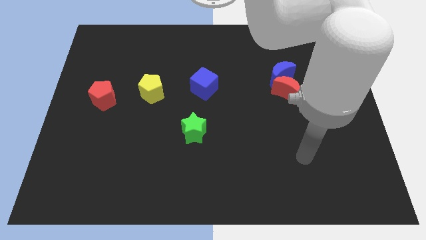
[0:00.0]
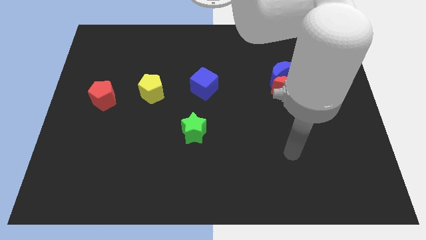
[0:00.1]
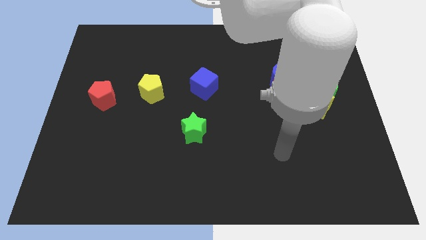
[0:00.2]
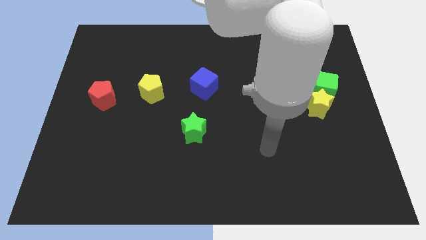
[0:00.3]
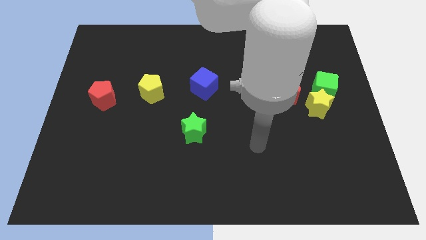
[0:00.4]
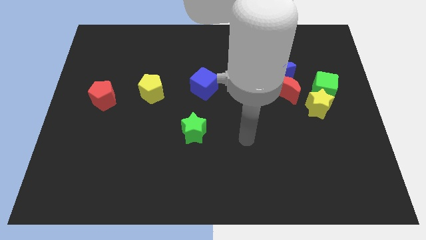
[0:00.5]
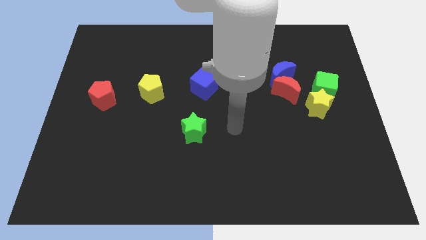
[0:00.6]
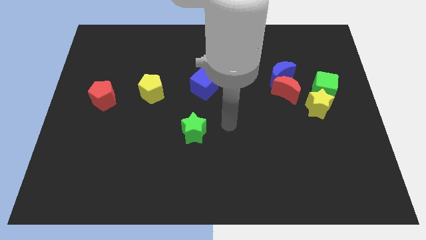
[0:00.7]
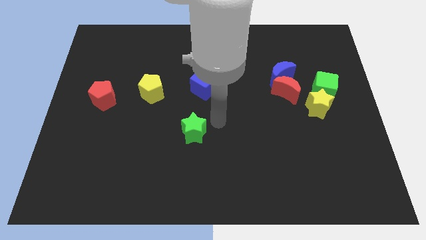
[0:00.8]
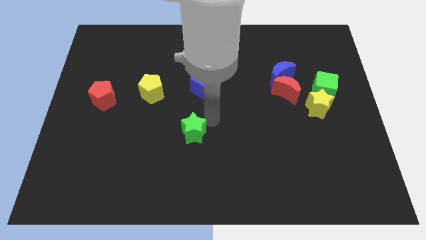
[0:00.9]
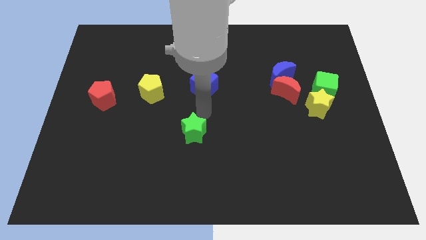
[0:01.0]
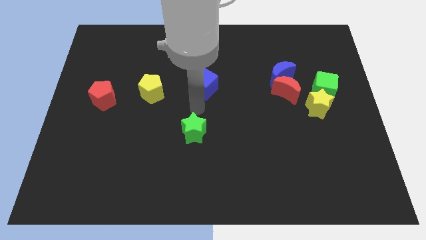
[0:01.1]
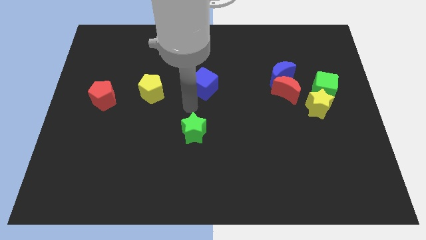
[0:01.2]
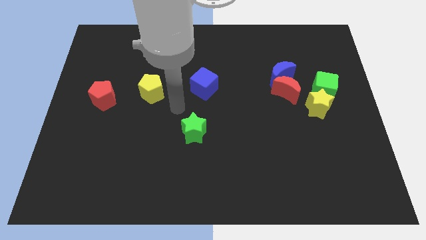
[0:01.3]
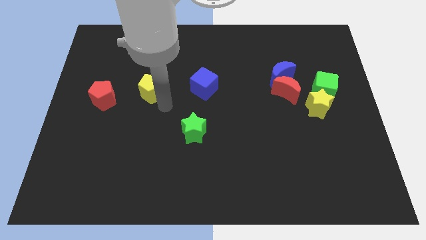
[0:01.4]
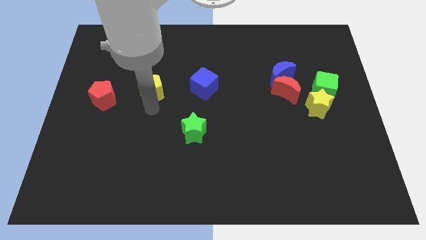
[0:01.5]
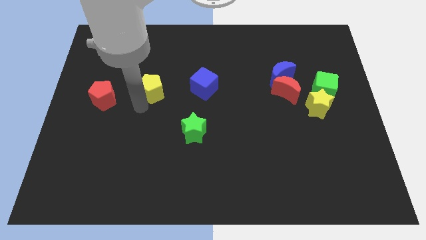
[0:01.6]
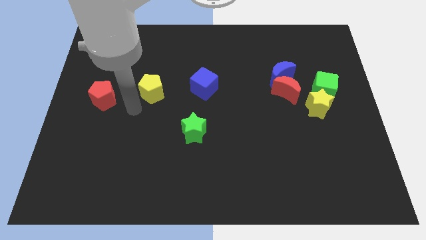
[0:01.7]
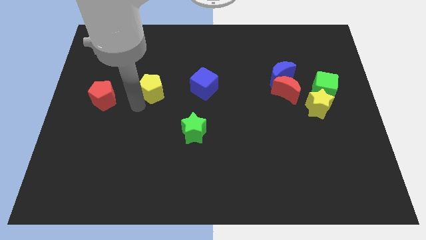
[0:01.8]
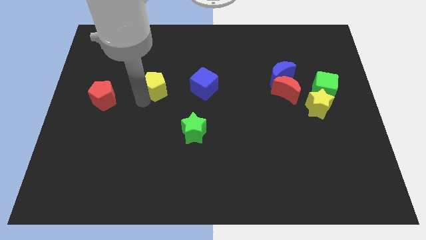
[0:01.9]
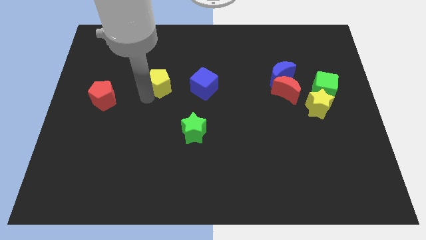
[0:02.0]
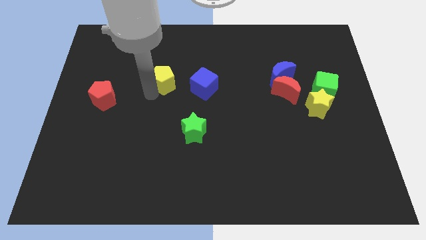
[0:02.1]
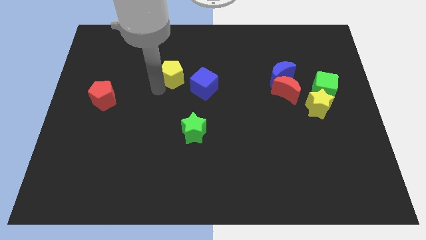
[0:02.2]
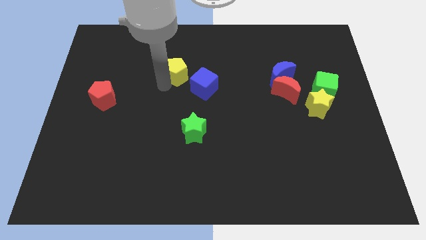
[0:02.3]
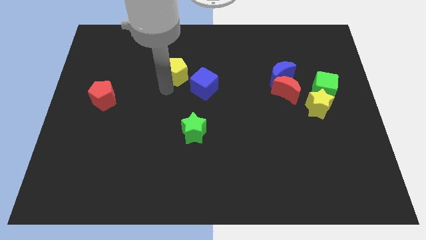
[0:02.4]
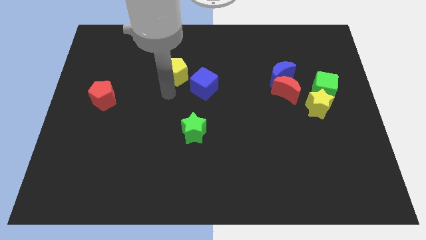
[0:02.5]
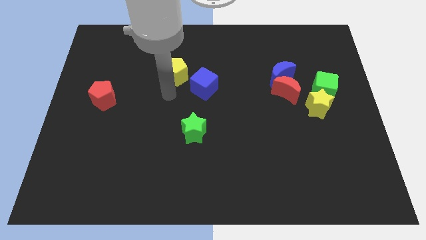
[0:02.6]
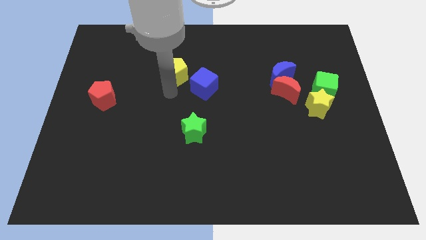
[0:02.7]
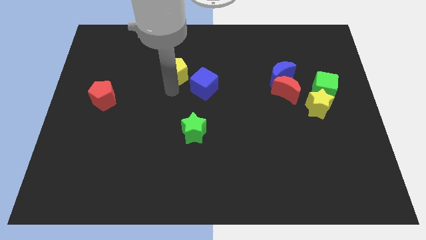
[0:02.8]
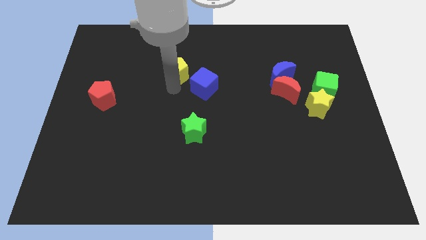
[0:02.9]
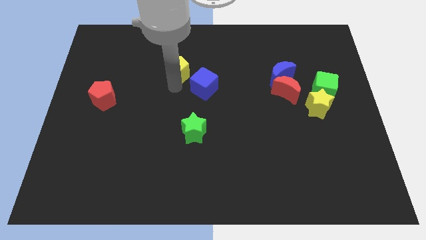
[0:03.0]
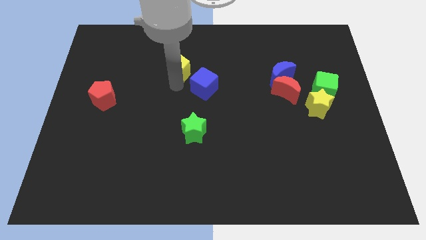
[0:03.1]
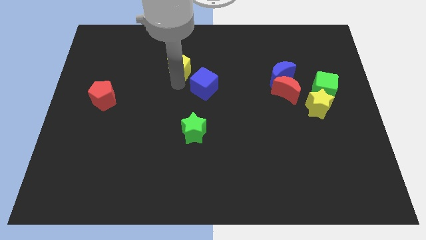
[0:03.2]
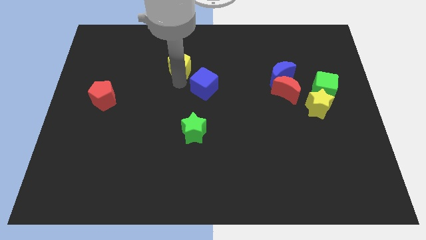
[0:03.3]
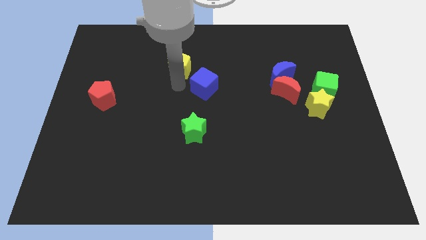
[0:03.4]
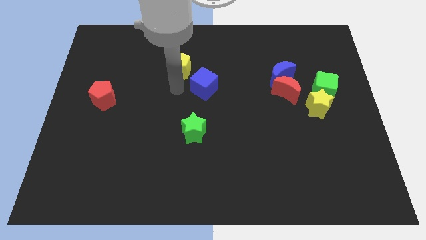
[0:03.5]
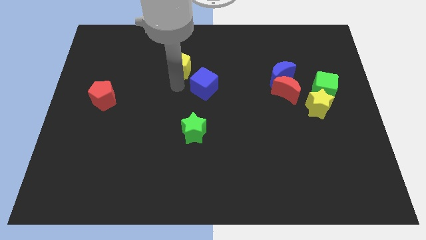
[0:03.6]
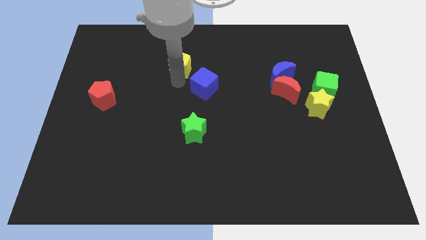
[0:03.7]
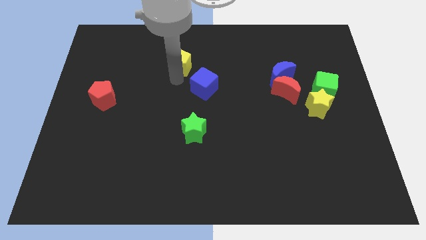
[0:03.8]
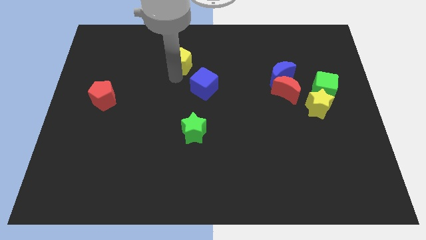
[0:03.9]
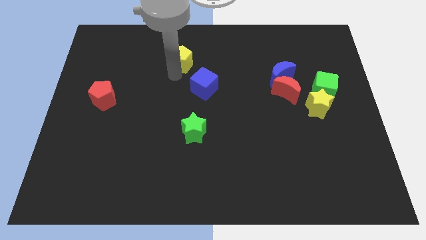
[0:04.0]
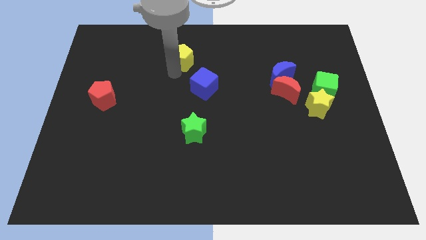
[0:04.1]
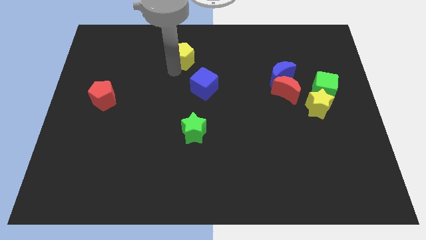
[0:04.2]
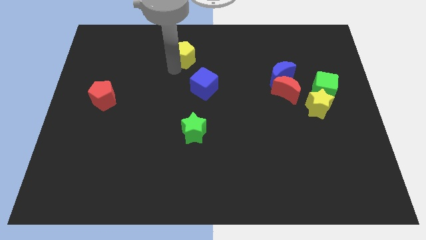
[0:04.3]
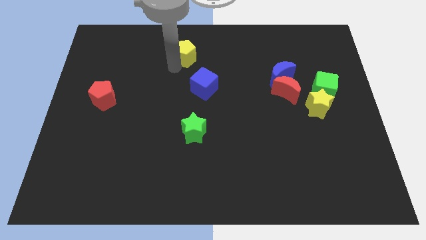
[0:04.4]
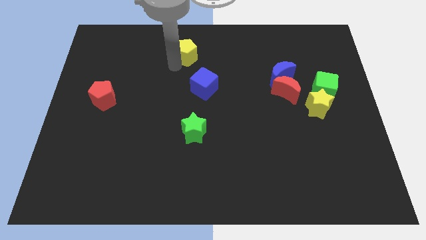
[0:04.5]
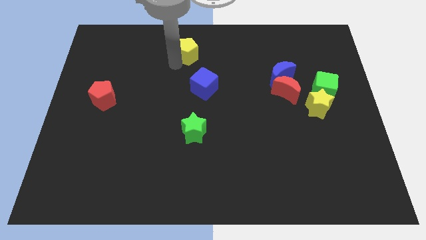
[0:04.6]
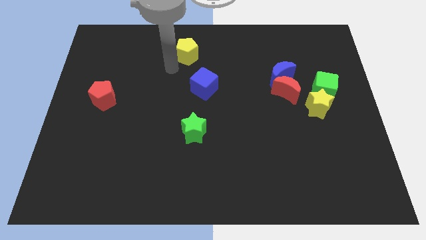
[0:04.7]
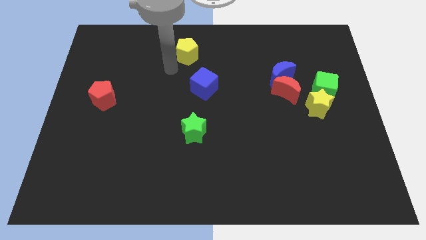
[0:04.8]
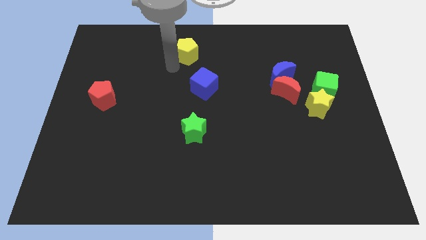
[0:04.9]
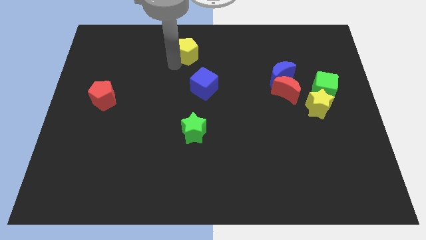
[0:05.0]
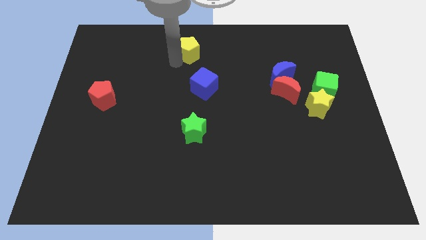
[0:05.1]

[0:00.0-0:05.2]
push the yellow pentagon to the towards your base

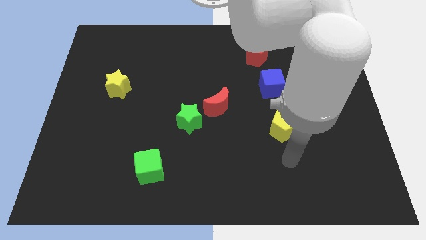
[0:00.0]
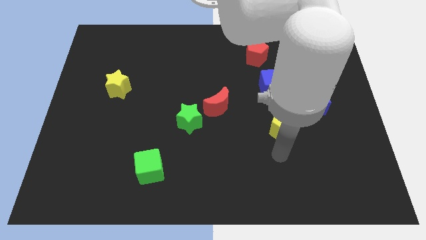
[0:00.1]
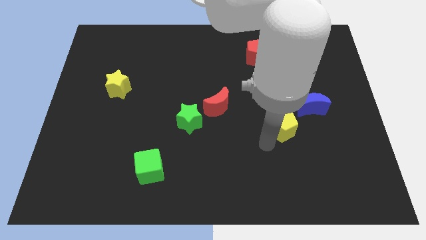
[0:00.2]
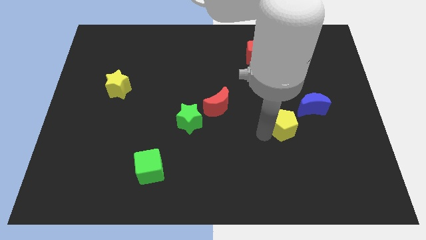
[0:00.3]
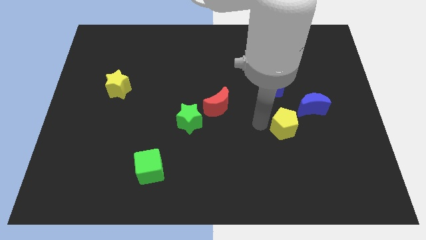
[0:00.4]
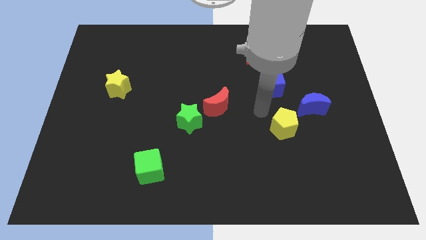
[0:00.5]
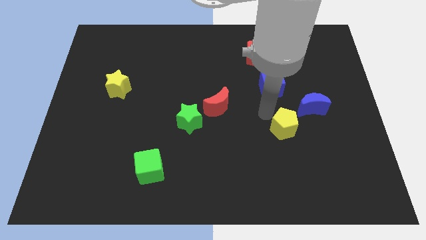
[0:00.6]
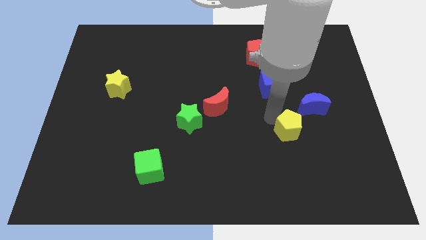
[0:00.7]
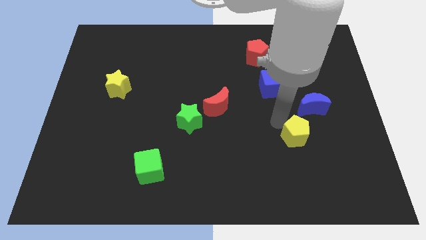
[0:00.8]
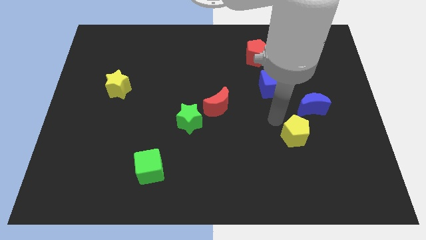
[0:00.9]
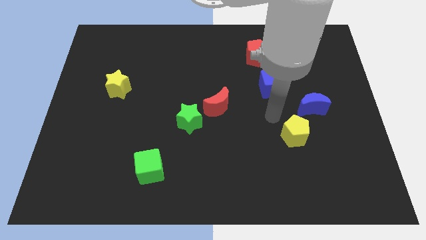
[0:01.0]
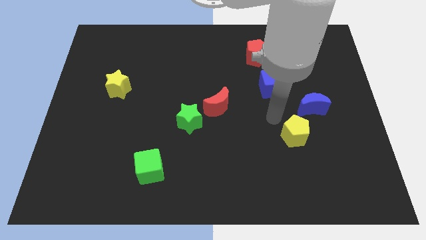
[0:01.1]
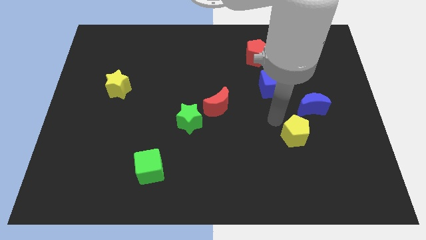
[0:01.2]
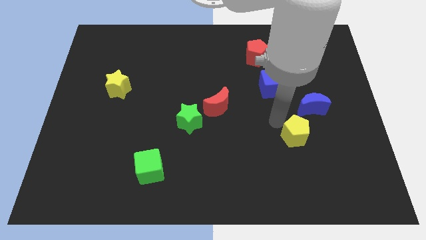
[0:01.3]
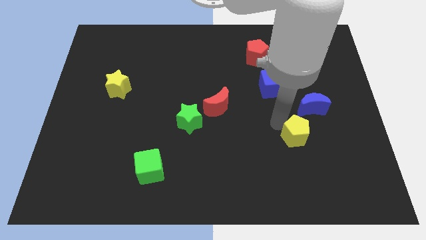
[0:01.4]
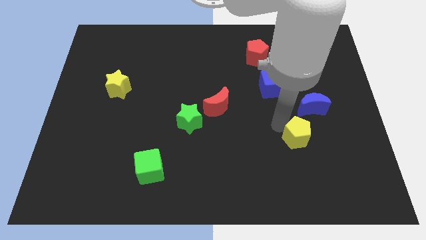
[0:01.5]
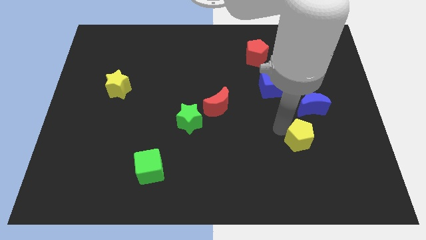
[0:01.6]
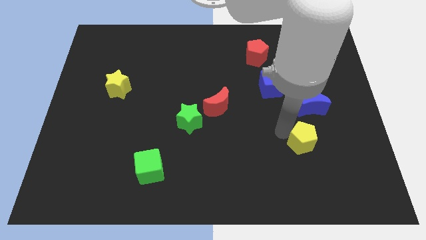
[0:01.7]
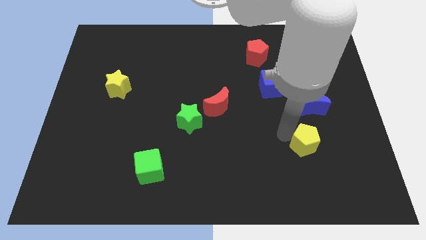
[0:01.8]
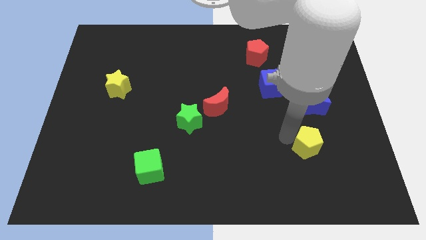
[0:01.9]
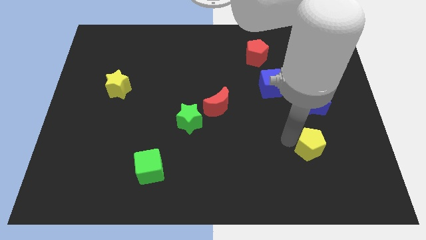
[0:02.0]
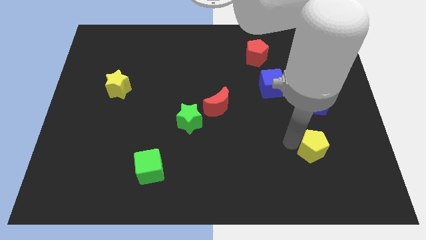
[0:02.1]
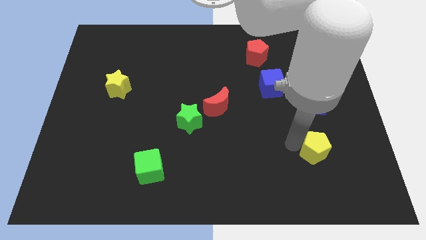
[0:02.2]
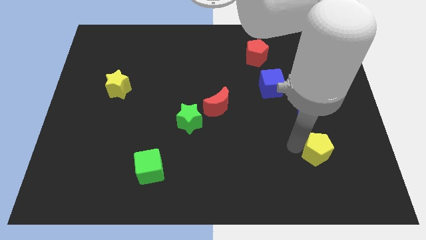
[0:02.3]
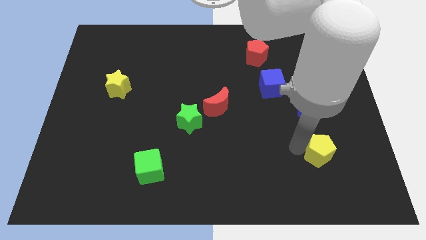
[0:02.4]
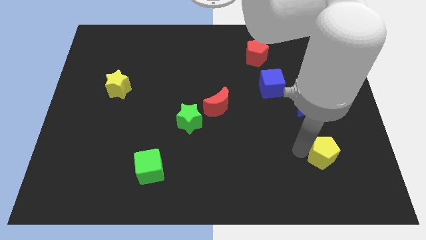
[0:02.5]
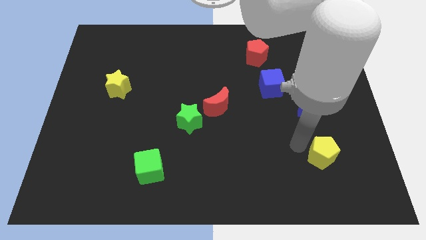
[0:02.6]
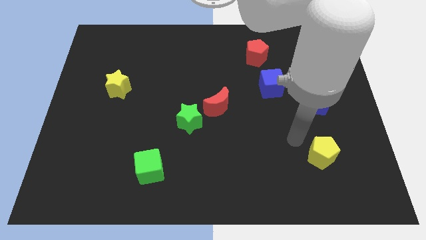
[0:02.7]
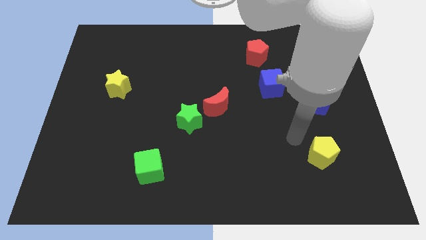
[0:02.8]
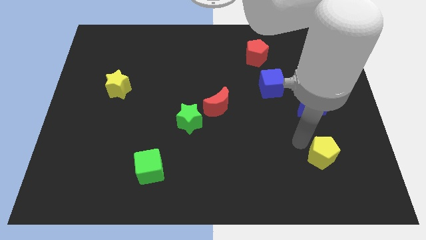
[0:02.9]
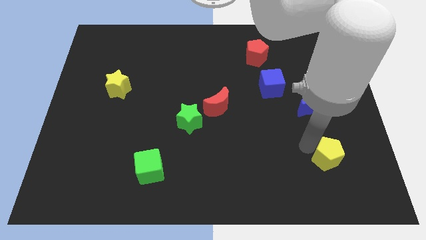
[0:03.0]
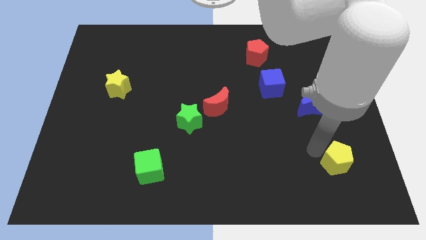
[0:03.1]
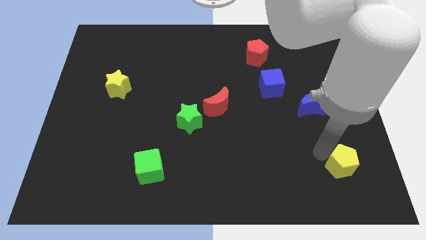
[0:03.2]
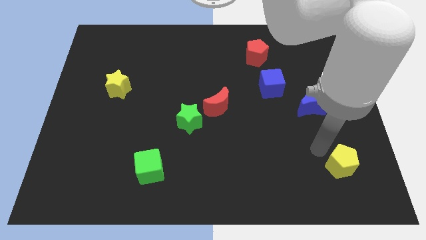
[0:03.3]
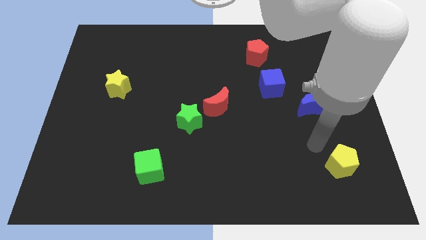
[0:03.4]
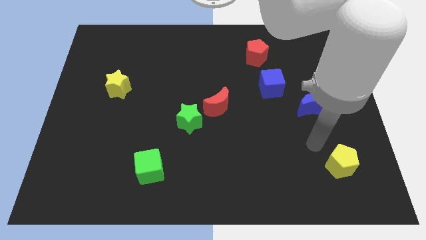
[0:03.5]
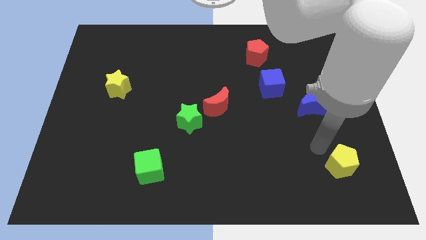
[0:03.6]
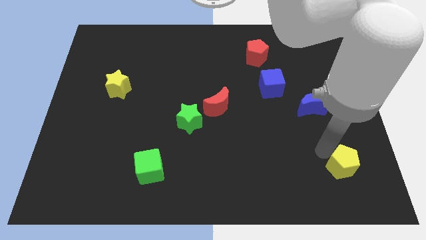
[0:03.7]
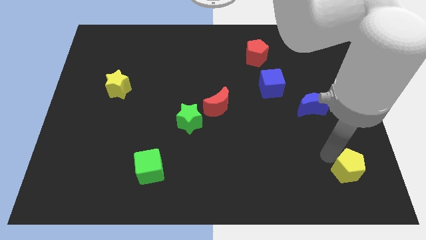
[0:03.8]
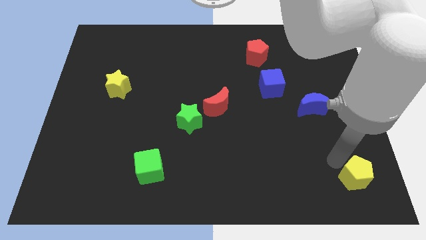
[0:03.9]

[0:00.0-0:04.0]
slide the yellow pentagon to the lower right corner
